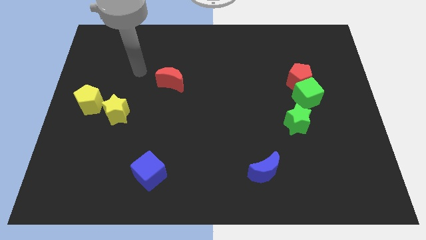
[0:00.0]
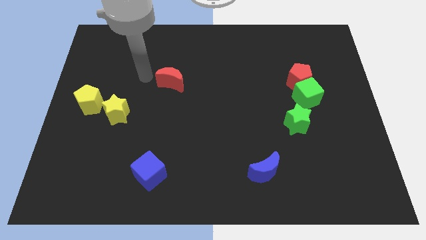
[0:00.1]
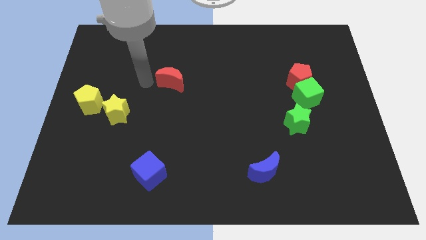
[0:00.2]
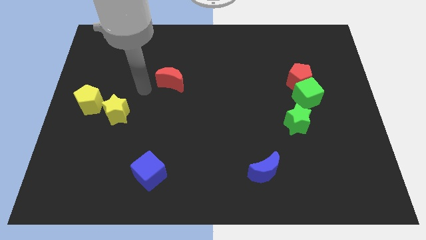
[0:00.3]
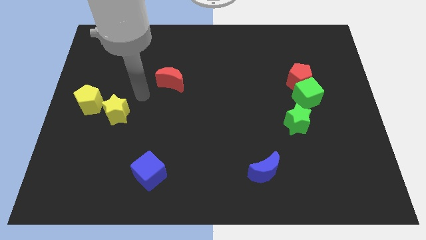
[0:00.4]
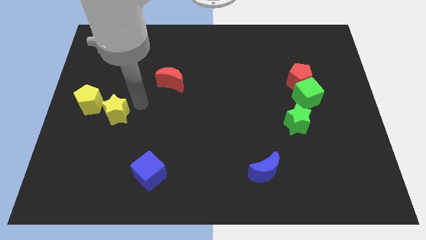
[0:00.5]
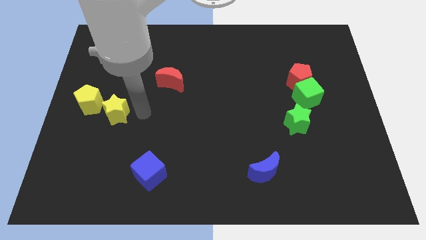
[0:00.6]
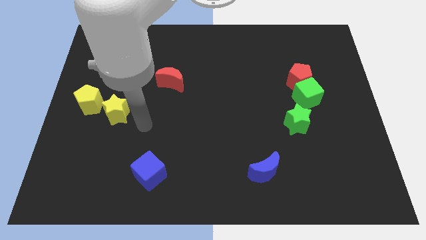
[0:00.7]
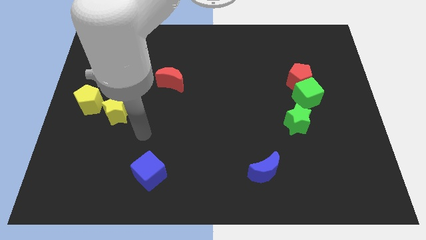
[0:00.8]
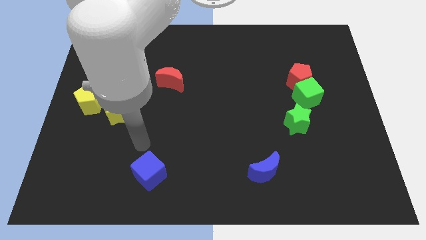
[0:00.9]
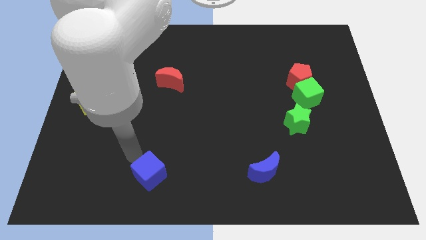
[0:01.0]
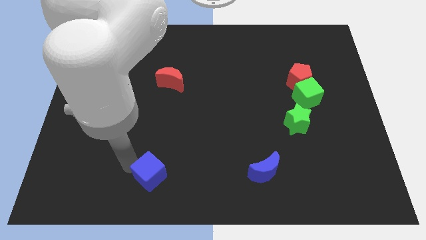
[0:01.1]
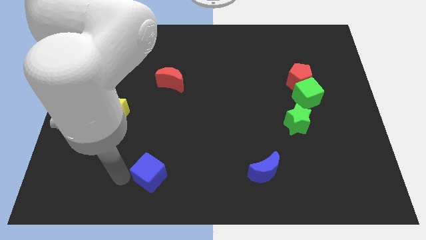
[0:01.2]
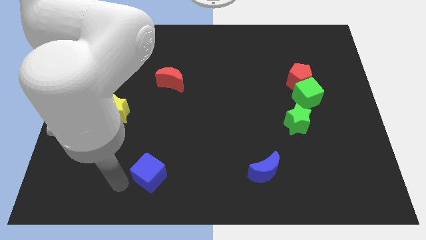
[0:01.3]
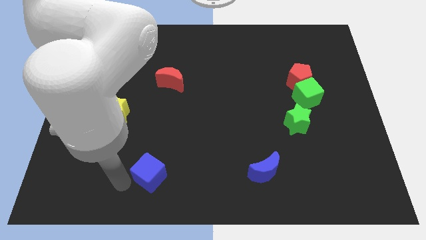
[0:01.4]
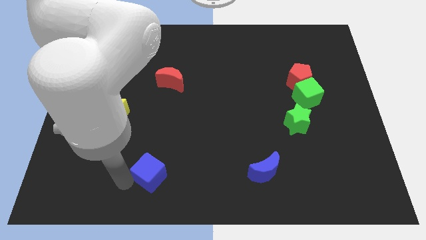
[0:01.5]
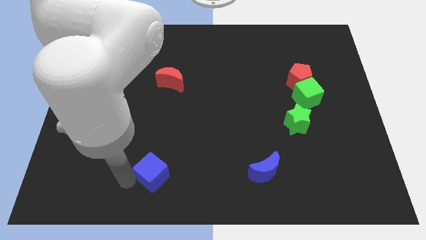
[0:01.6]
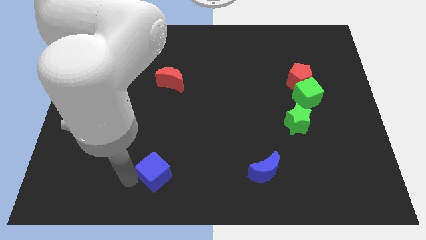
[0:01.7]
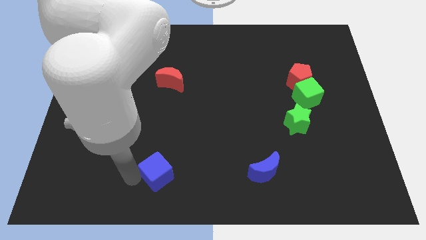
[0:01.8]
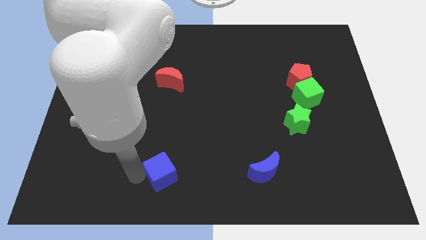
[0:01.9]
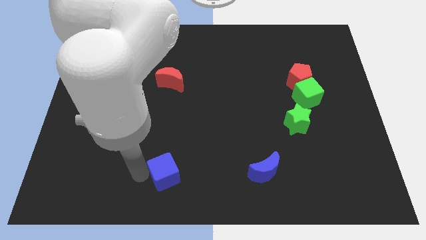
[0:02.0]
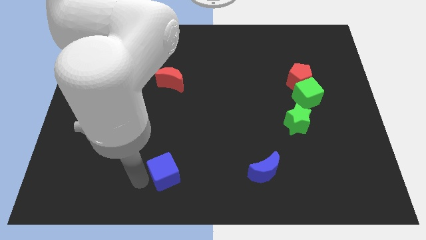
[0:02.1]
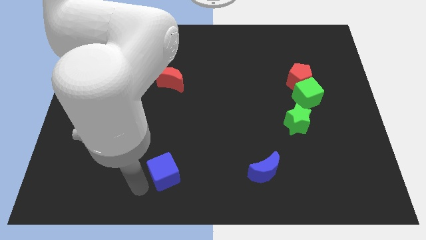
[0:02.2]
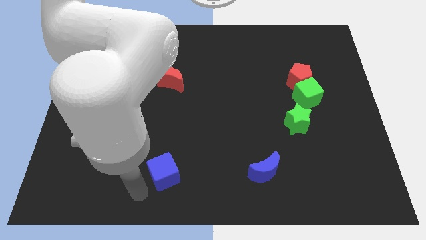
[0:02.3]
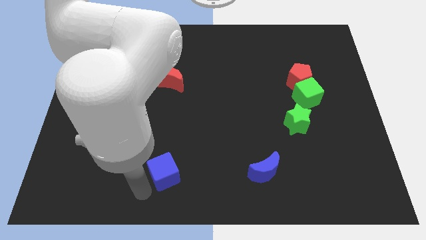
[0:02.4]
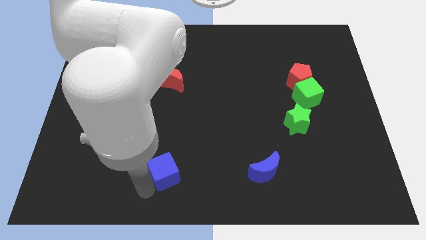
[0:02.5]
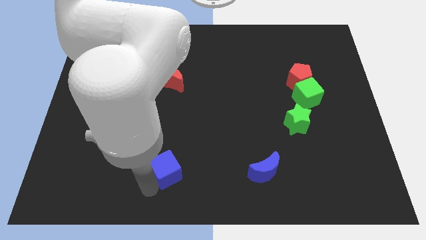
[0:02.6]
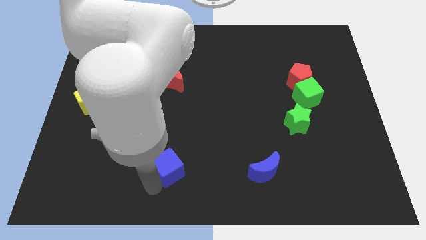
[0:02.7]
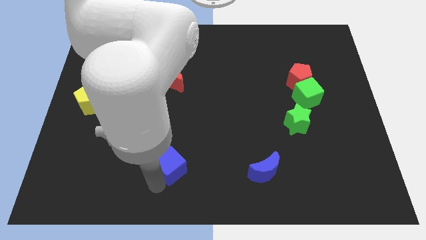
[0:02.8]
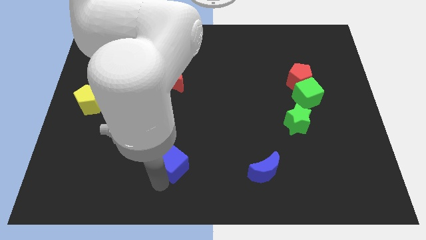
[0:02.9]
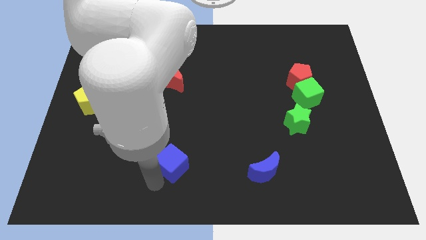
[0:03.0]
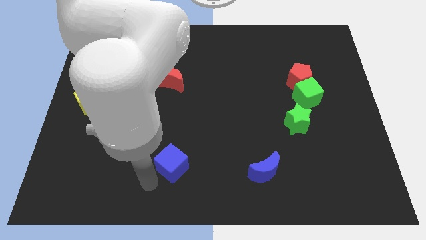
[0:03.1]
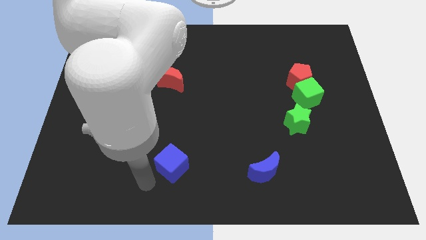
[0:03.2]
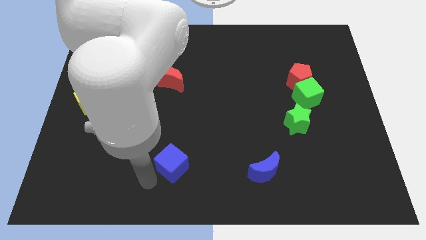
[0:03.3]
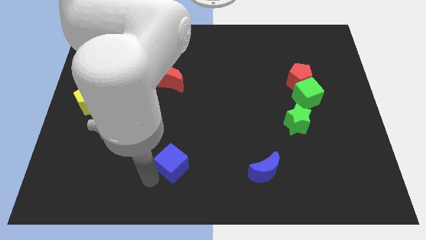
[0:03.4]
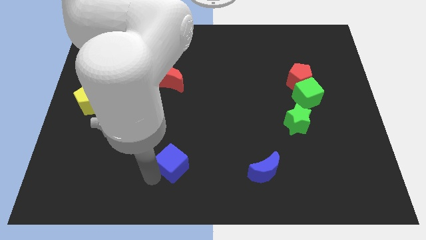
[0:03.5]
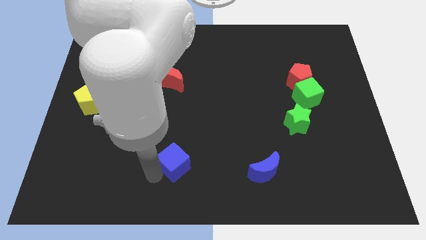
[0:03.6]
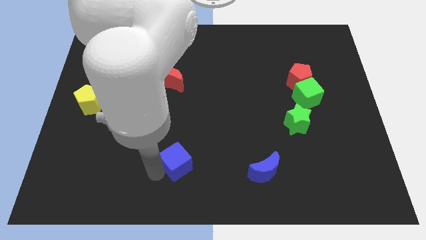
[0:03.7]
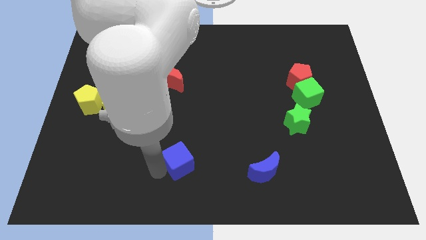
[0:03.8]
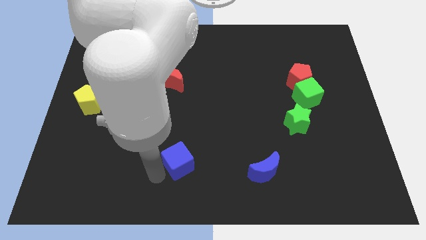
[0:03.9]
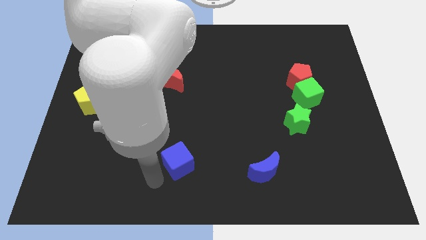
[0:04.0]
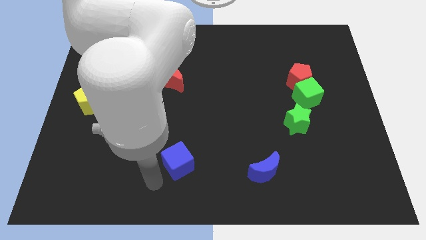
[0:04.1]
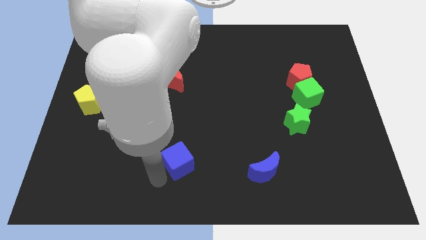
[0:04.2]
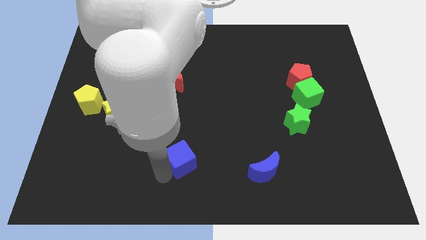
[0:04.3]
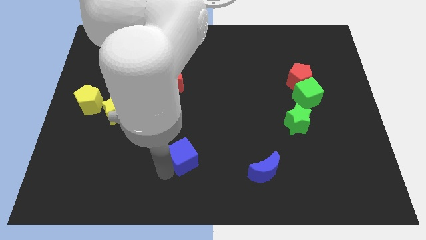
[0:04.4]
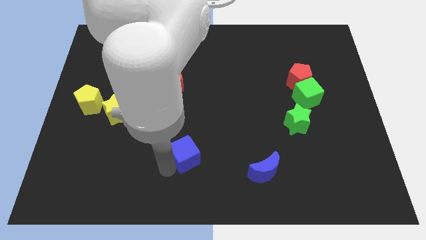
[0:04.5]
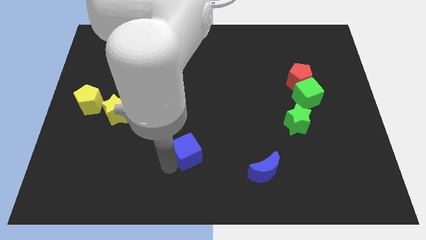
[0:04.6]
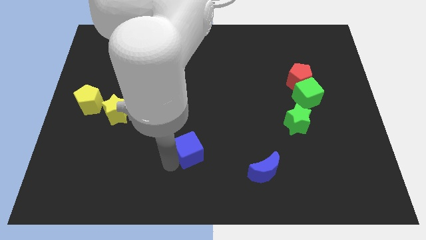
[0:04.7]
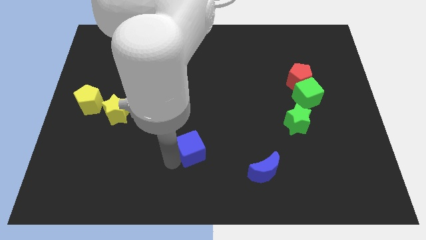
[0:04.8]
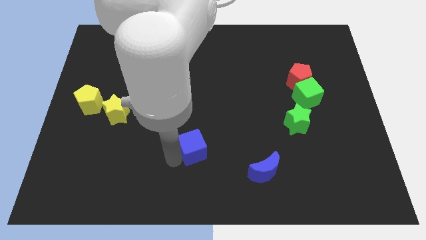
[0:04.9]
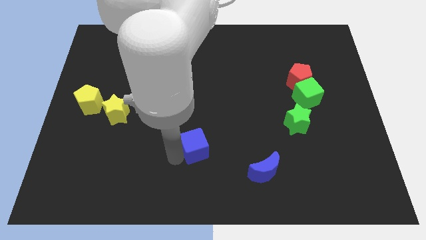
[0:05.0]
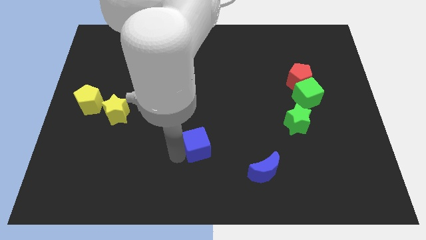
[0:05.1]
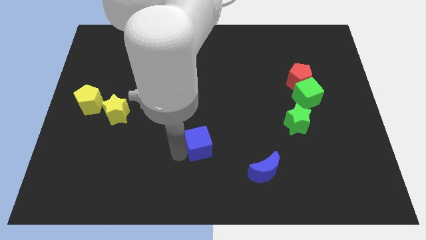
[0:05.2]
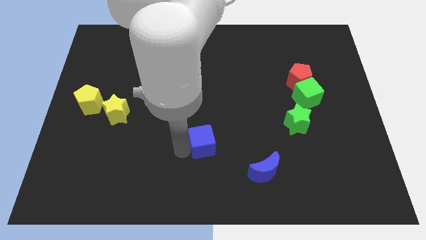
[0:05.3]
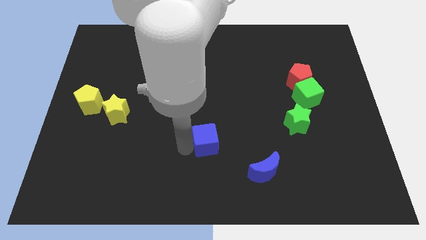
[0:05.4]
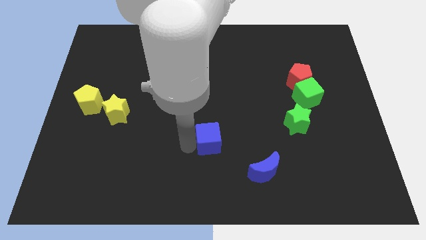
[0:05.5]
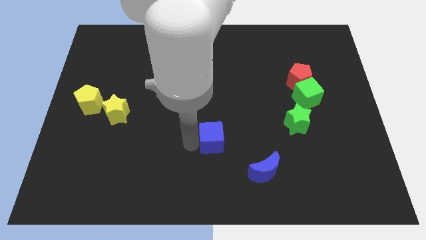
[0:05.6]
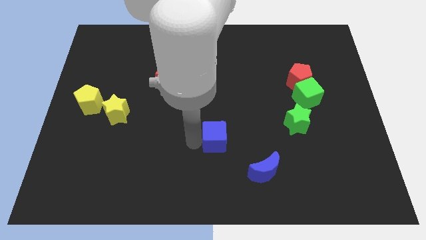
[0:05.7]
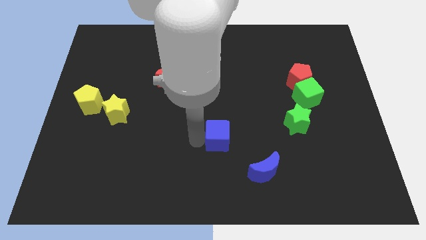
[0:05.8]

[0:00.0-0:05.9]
move the blue cube diagonally up and to the left of the blue moon

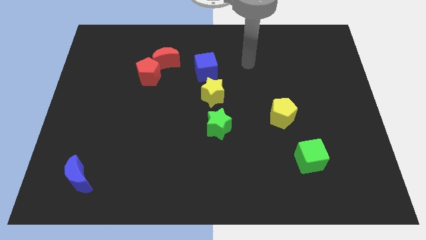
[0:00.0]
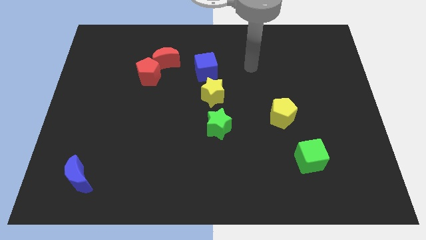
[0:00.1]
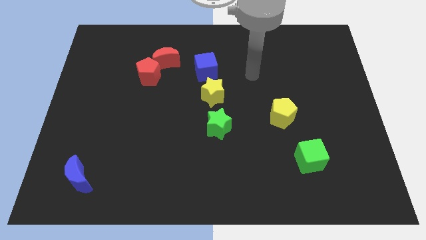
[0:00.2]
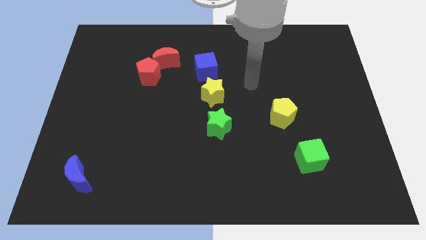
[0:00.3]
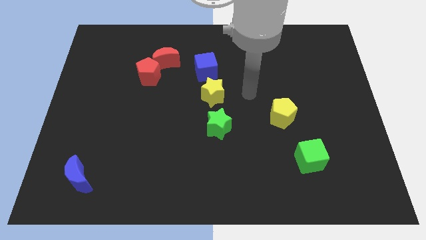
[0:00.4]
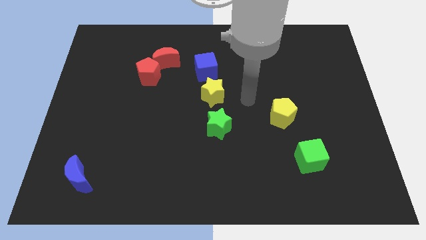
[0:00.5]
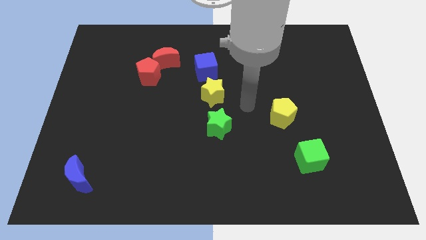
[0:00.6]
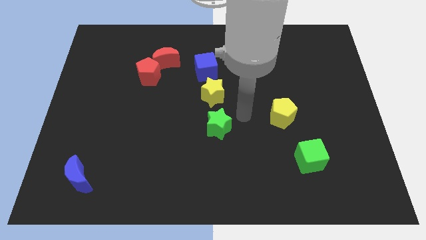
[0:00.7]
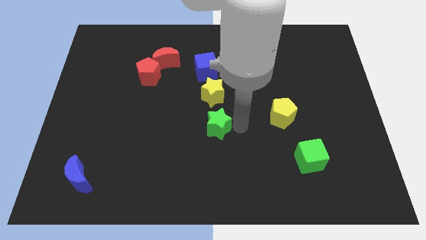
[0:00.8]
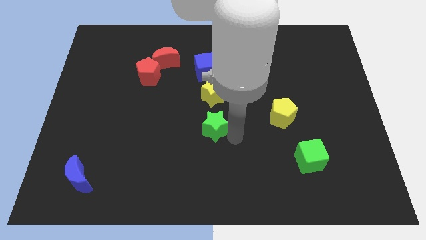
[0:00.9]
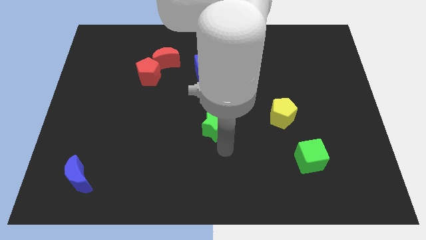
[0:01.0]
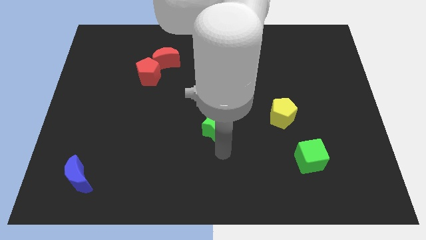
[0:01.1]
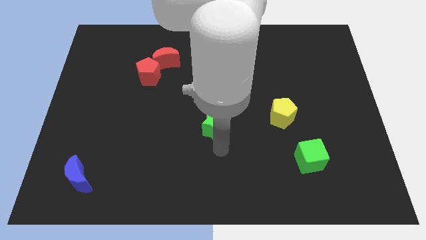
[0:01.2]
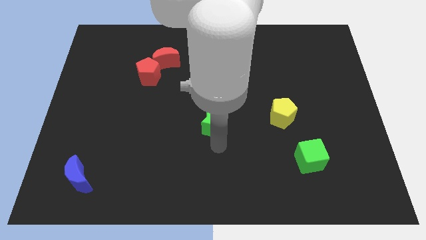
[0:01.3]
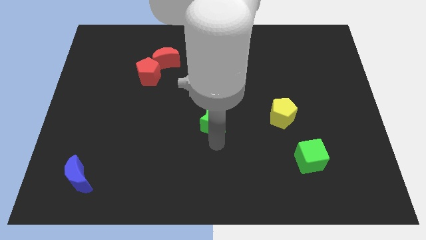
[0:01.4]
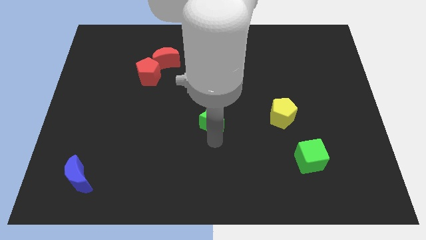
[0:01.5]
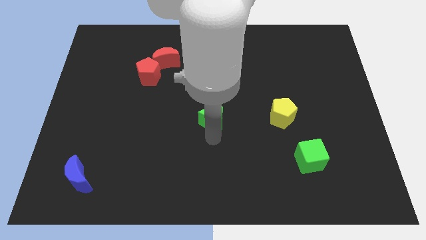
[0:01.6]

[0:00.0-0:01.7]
put the green star to the bottom side of the blue cube

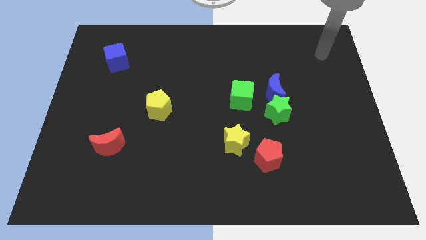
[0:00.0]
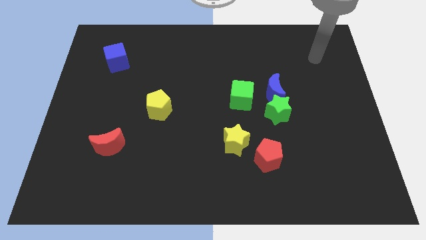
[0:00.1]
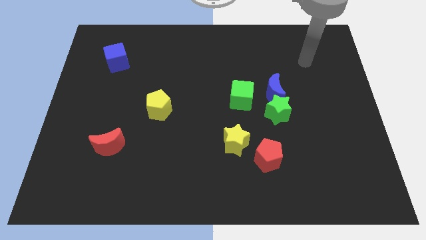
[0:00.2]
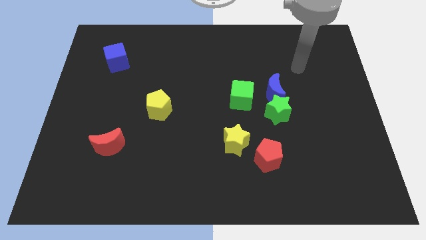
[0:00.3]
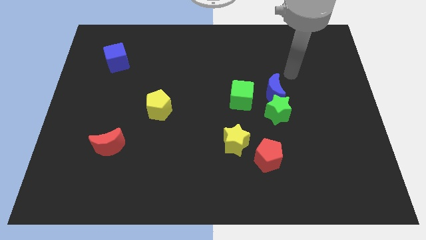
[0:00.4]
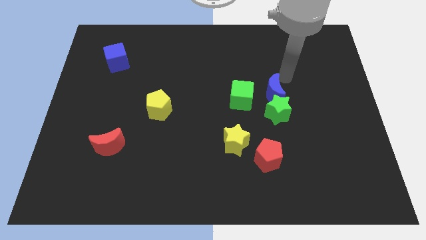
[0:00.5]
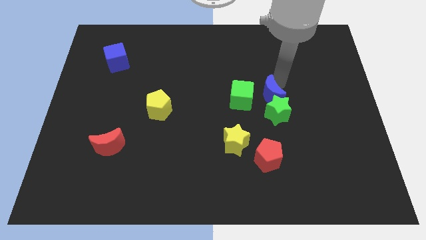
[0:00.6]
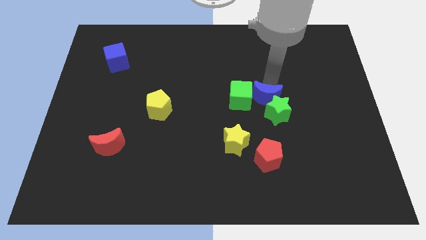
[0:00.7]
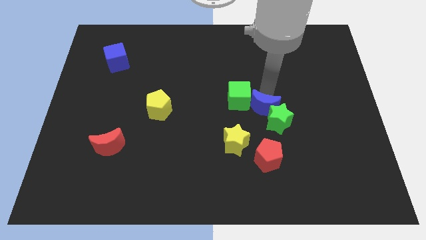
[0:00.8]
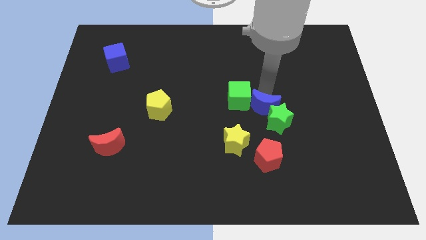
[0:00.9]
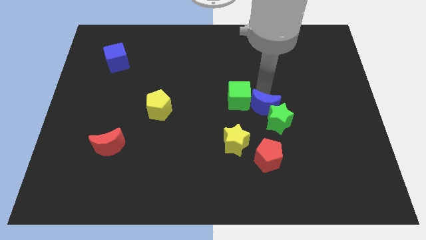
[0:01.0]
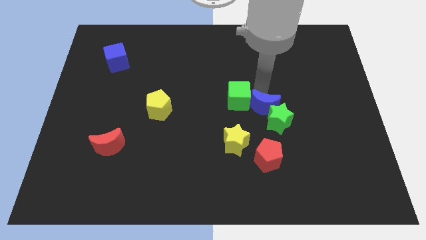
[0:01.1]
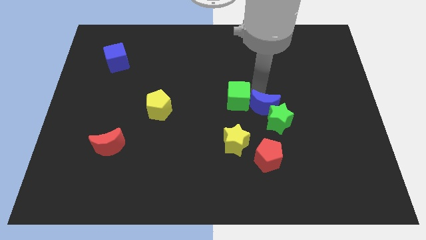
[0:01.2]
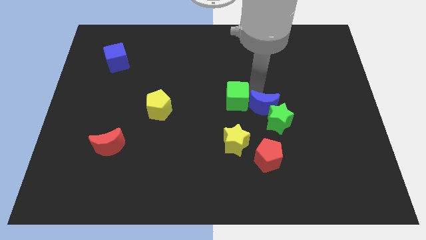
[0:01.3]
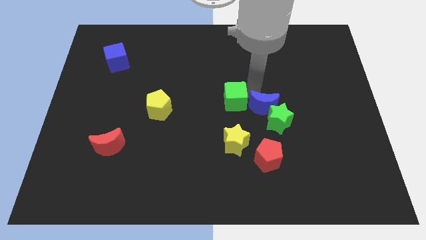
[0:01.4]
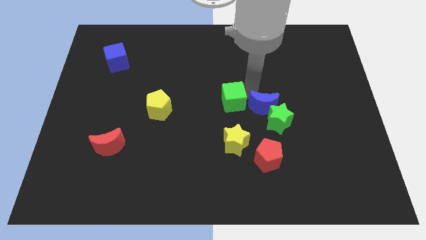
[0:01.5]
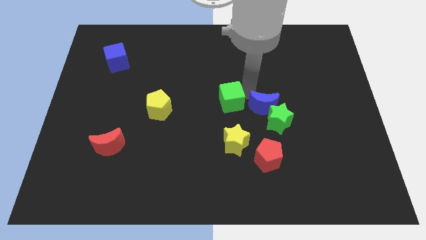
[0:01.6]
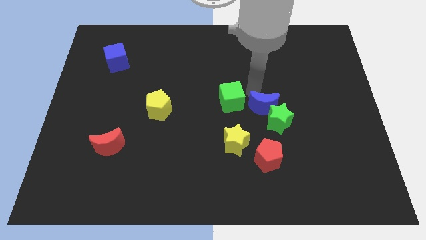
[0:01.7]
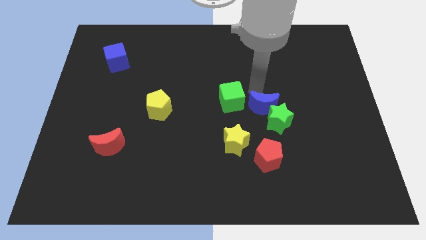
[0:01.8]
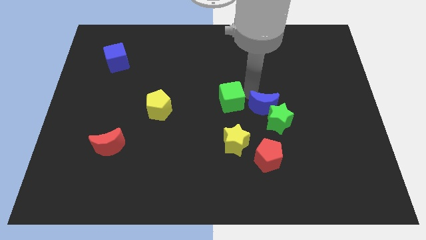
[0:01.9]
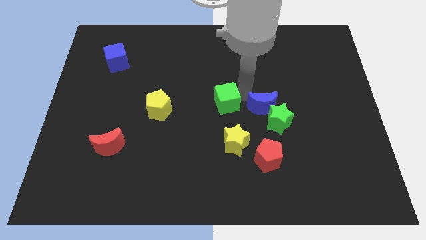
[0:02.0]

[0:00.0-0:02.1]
slide the green cube just right of the yellow pentagon
